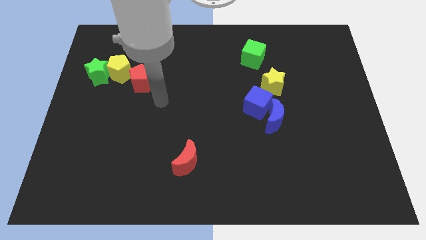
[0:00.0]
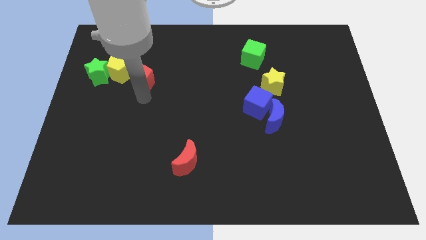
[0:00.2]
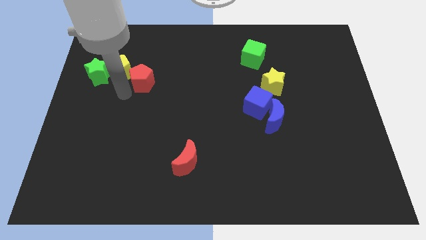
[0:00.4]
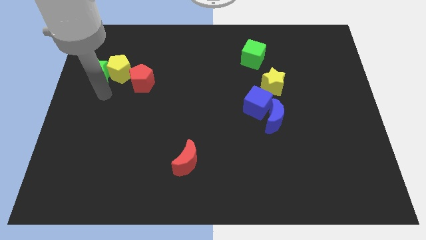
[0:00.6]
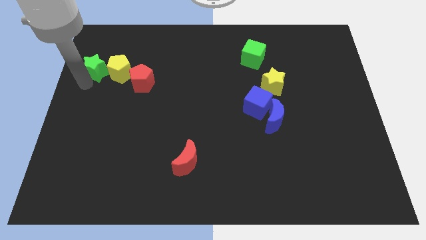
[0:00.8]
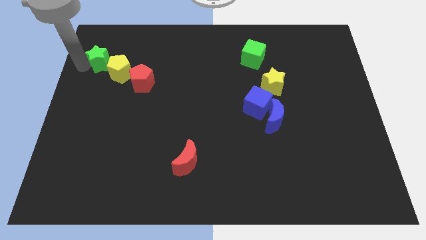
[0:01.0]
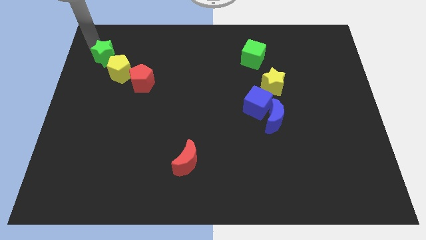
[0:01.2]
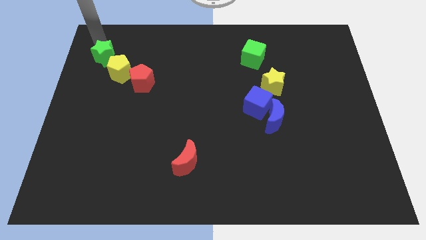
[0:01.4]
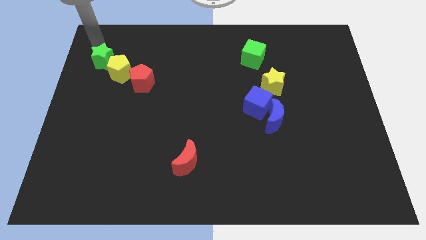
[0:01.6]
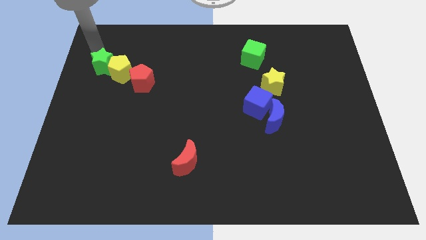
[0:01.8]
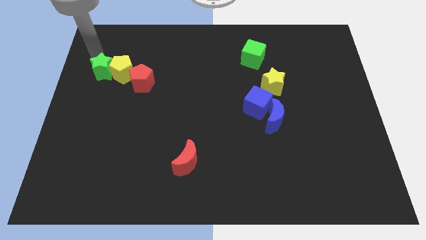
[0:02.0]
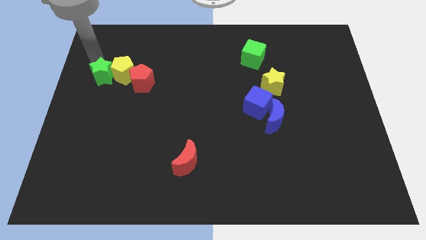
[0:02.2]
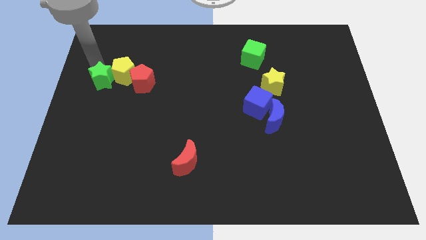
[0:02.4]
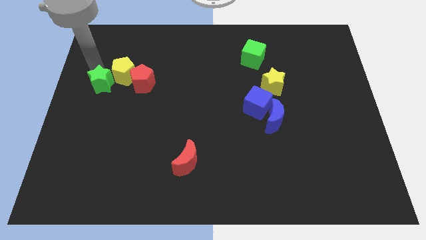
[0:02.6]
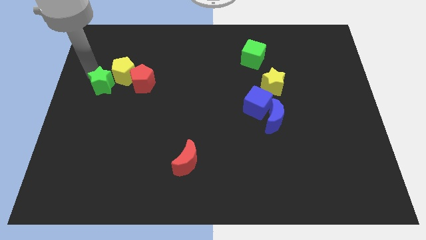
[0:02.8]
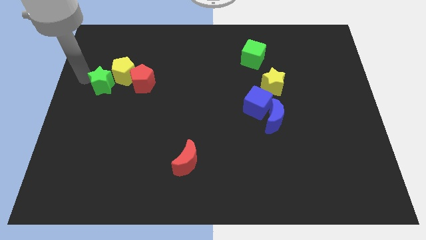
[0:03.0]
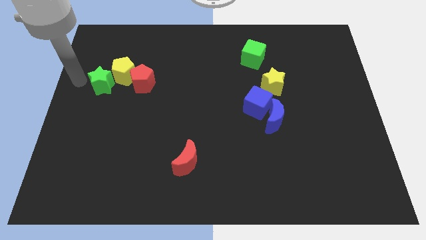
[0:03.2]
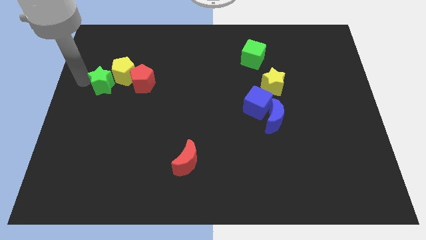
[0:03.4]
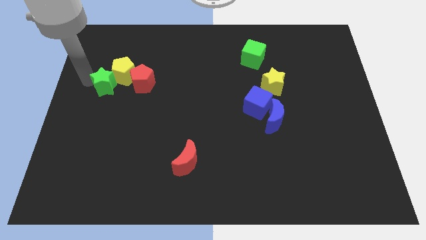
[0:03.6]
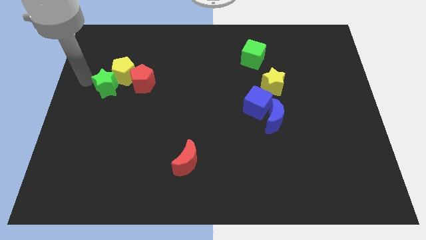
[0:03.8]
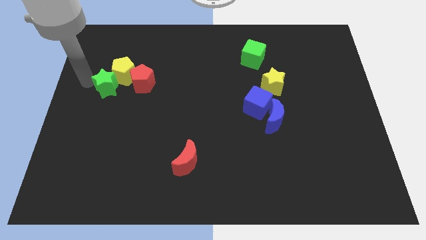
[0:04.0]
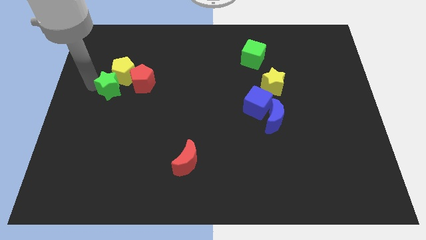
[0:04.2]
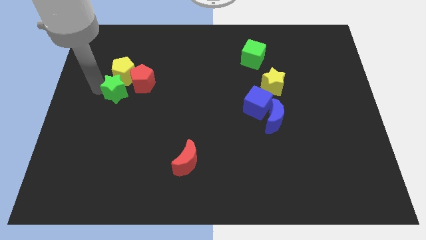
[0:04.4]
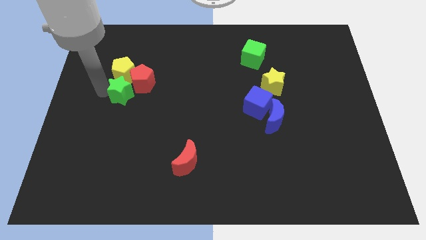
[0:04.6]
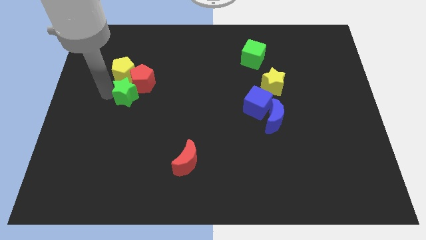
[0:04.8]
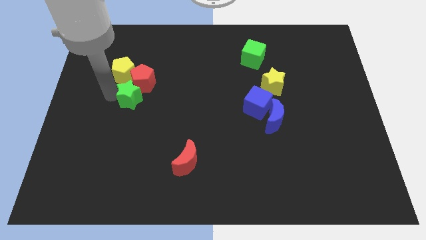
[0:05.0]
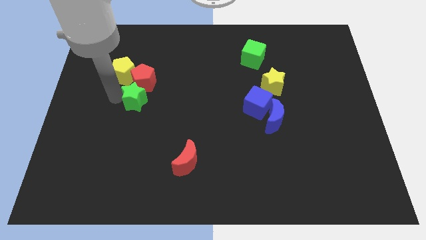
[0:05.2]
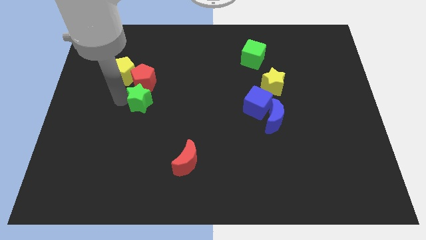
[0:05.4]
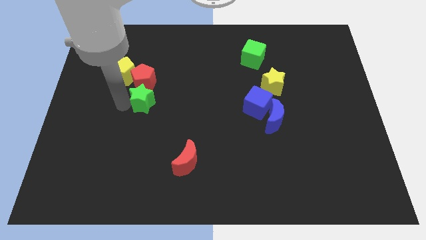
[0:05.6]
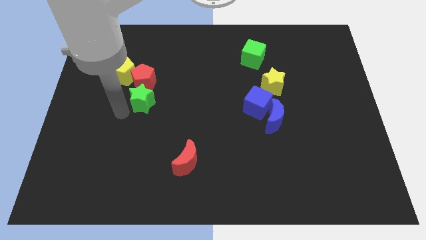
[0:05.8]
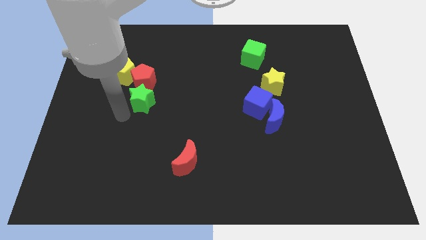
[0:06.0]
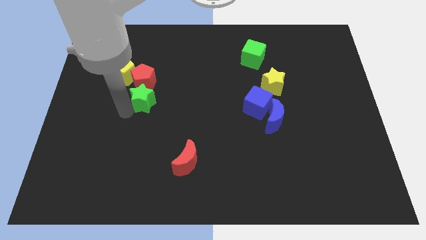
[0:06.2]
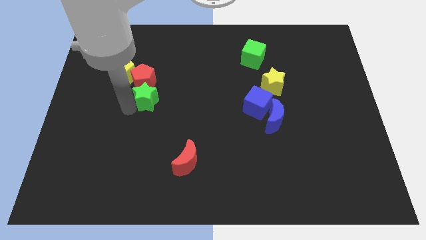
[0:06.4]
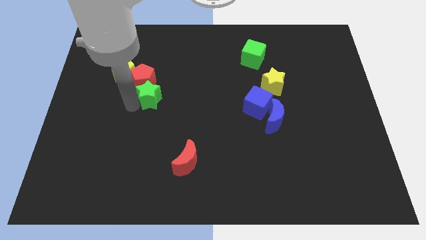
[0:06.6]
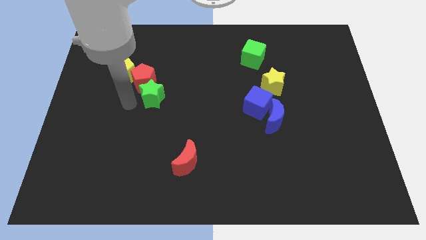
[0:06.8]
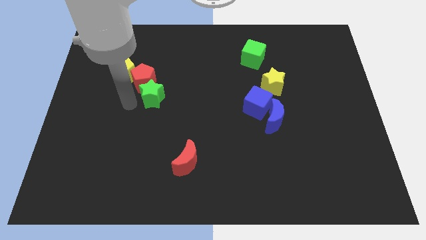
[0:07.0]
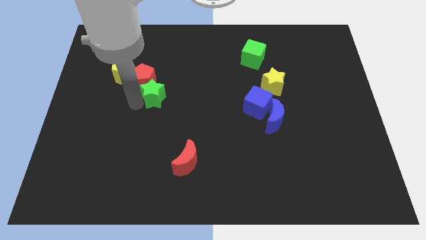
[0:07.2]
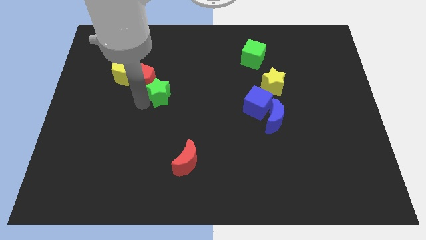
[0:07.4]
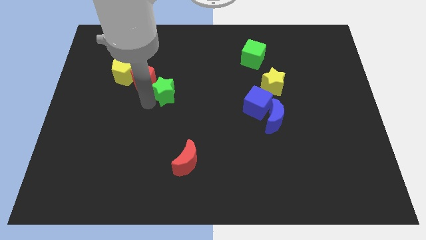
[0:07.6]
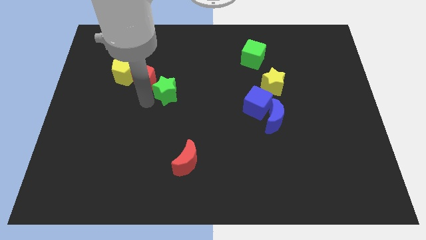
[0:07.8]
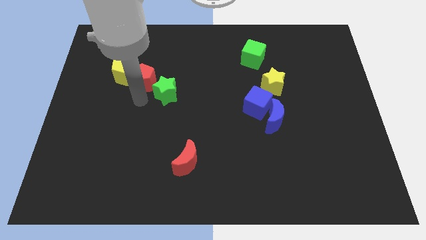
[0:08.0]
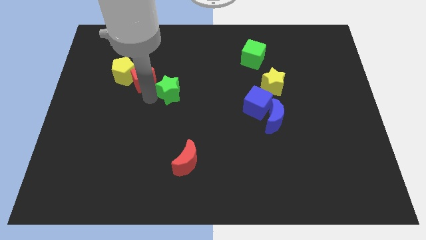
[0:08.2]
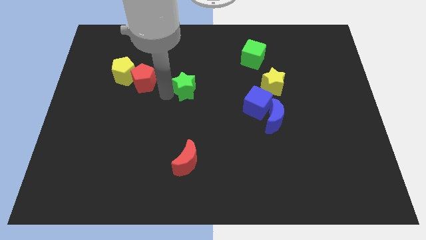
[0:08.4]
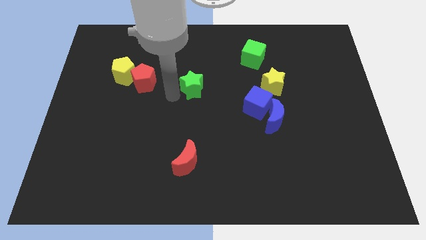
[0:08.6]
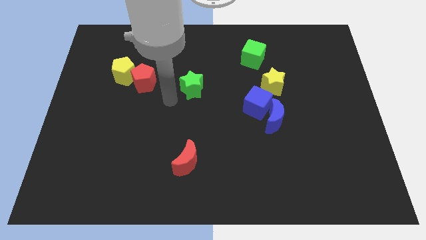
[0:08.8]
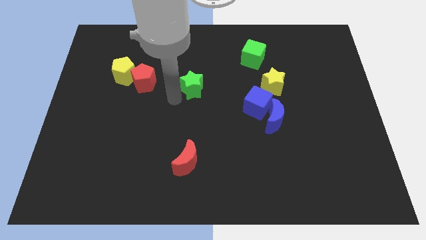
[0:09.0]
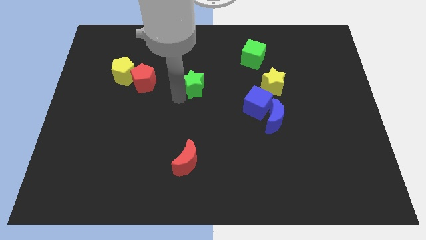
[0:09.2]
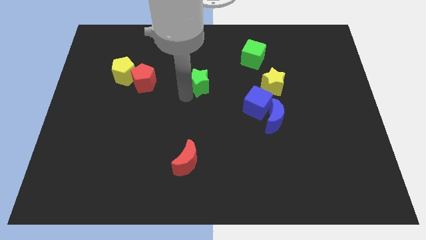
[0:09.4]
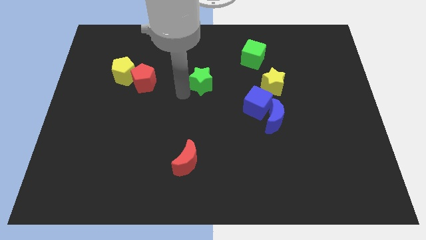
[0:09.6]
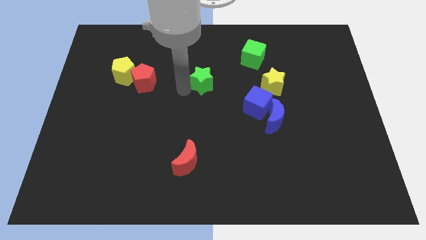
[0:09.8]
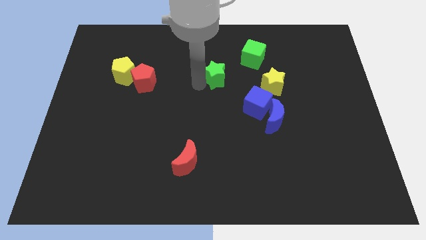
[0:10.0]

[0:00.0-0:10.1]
move the green star to the bottom left side of the green cube

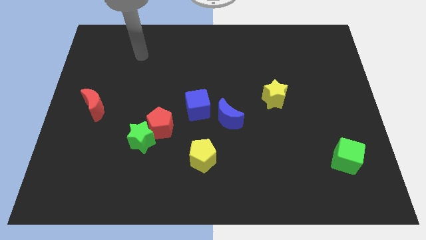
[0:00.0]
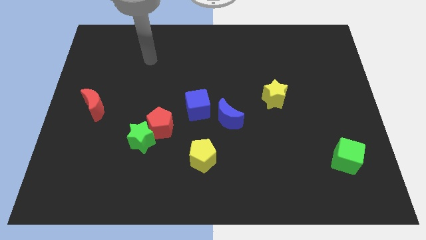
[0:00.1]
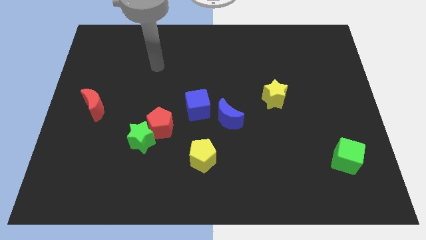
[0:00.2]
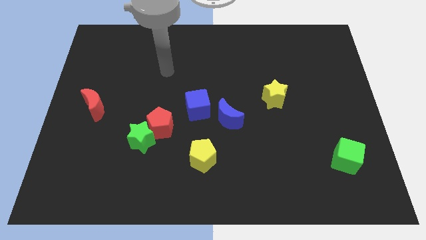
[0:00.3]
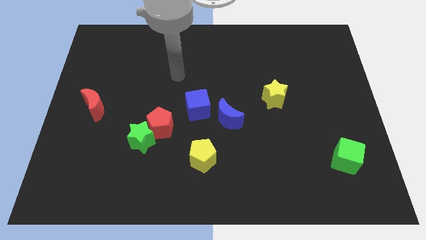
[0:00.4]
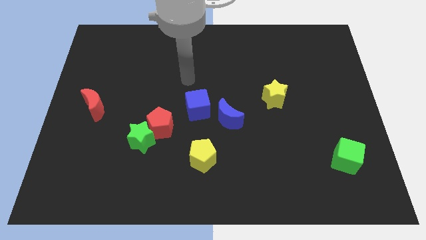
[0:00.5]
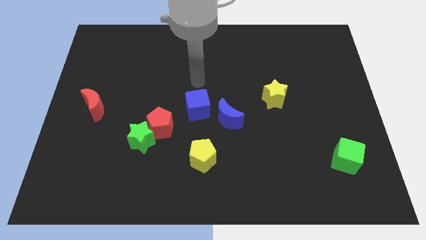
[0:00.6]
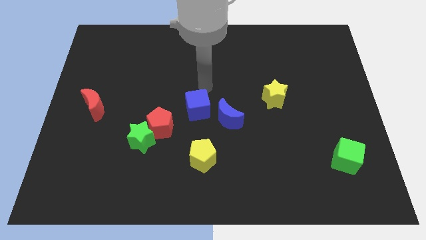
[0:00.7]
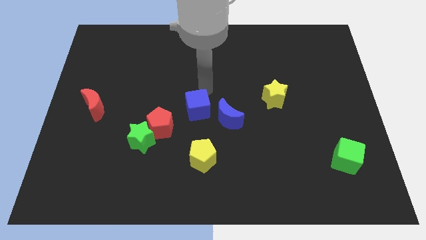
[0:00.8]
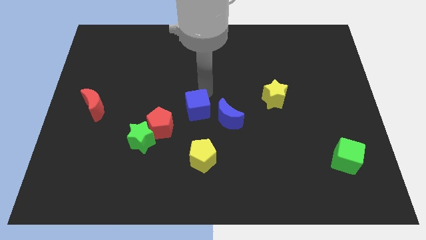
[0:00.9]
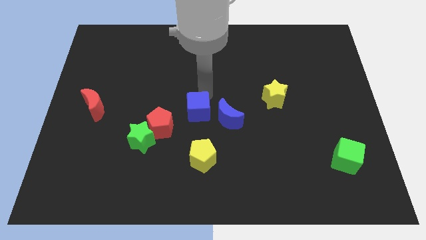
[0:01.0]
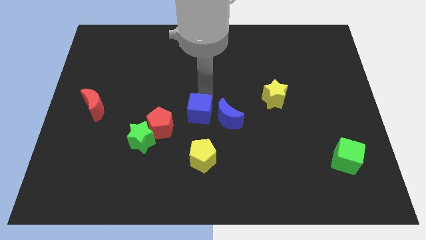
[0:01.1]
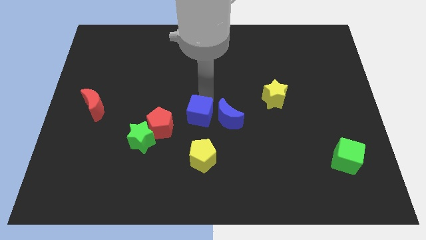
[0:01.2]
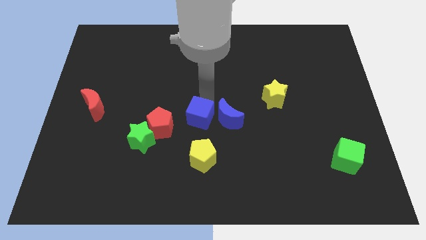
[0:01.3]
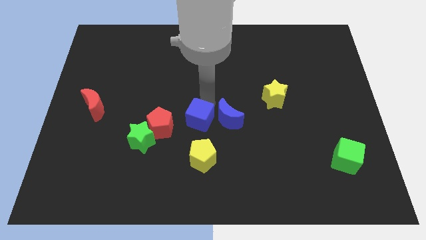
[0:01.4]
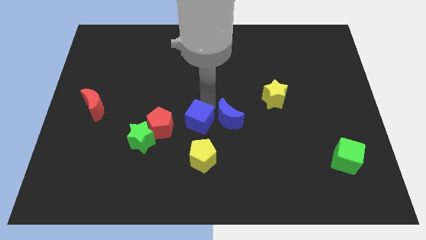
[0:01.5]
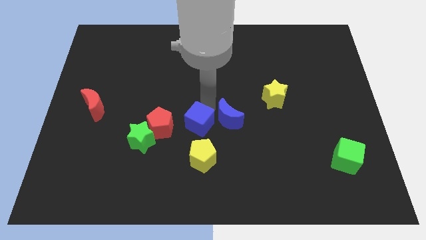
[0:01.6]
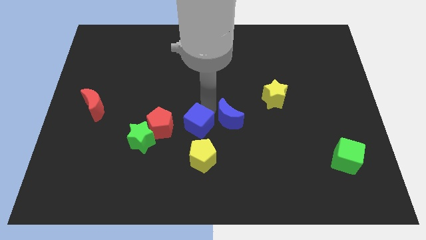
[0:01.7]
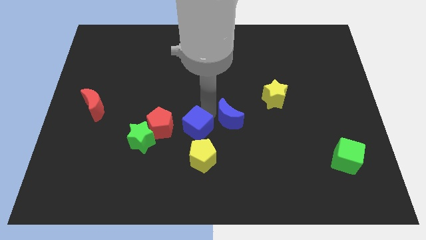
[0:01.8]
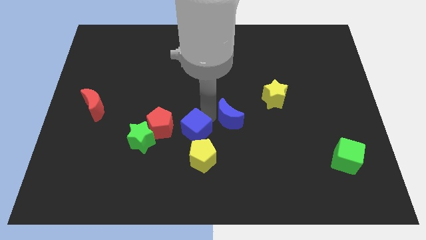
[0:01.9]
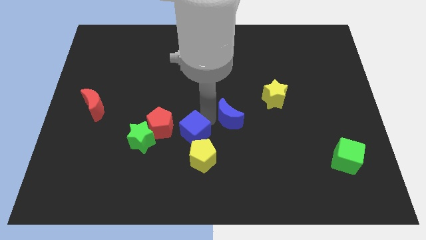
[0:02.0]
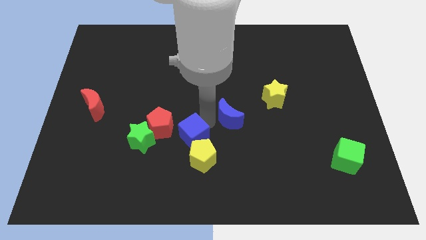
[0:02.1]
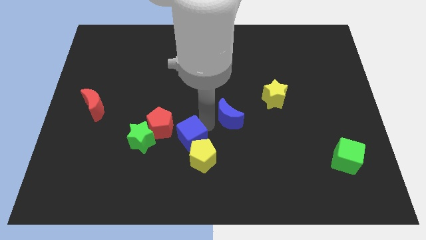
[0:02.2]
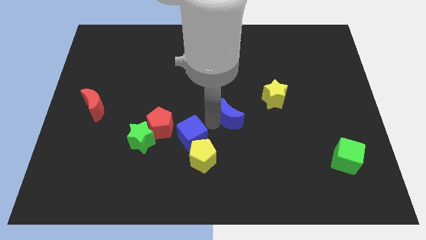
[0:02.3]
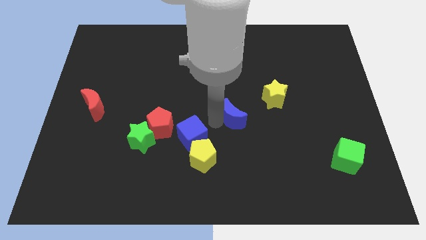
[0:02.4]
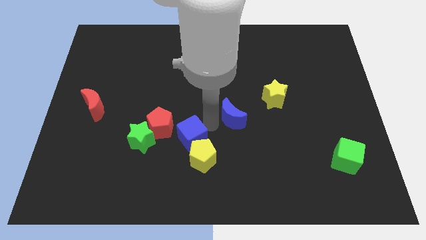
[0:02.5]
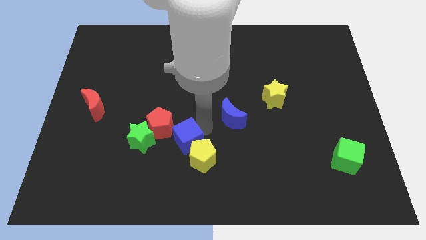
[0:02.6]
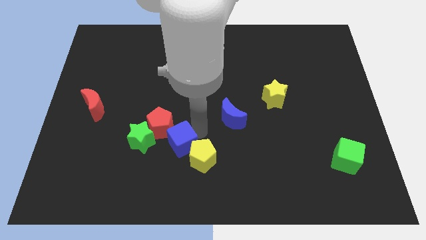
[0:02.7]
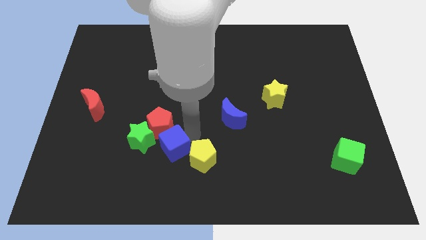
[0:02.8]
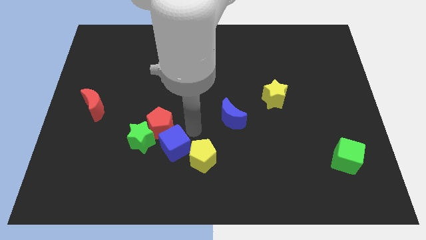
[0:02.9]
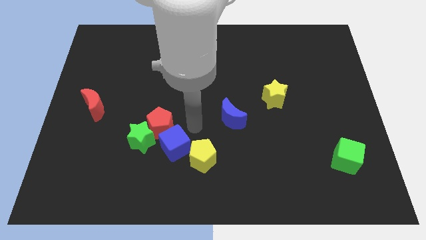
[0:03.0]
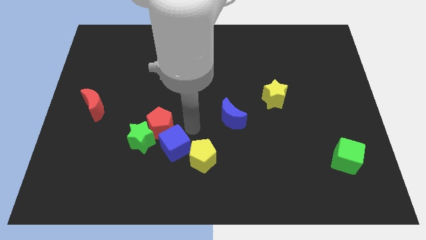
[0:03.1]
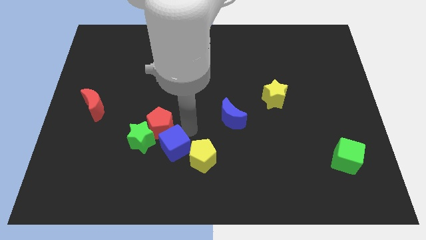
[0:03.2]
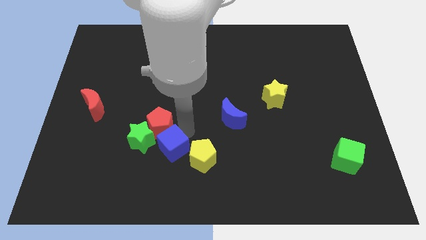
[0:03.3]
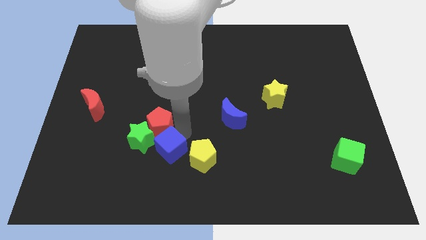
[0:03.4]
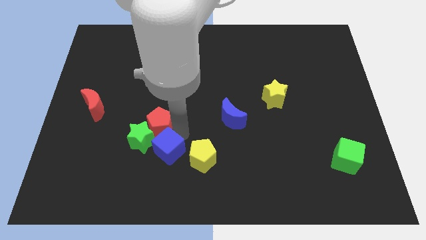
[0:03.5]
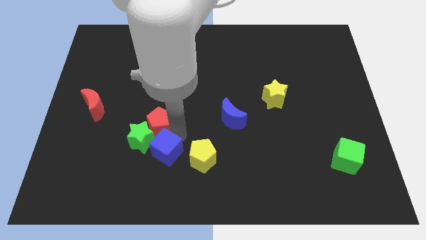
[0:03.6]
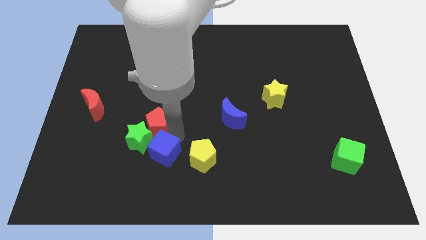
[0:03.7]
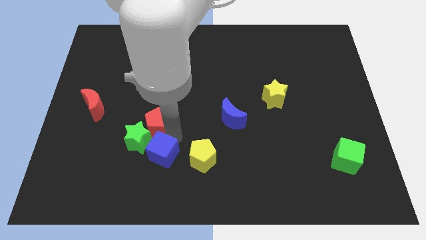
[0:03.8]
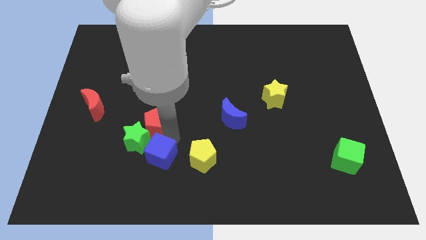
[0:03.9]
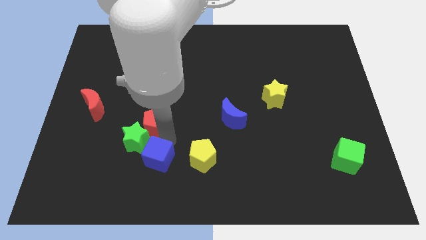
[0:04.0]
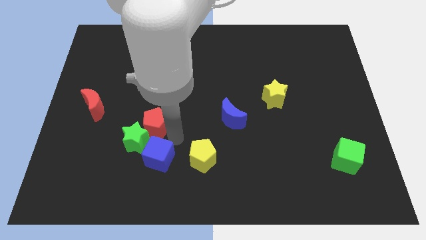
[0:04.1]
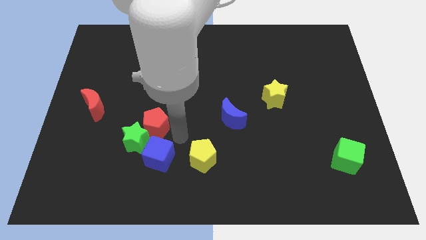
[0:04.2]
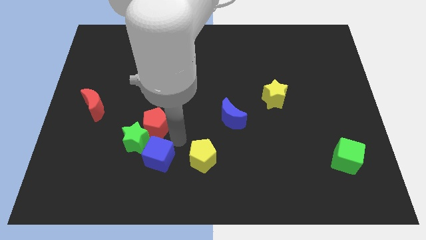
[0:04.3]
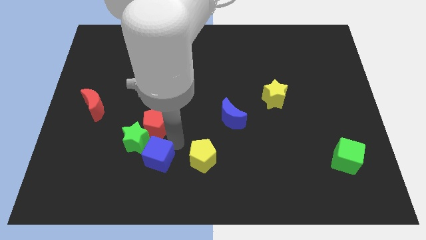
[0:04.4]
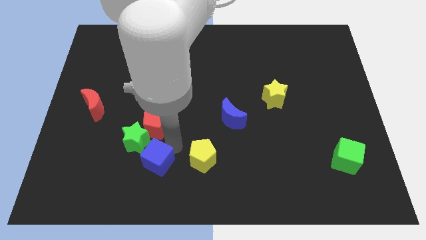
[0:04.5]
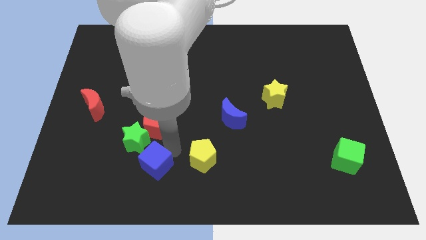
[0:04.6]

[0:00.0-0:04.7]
slide the blue cube below the green star
